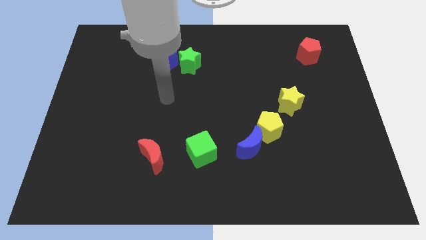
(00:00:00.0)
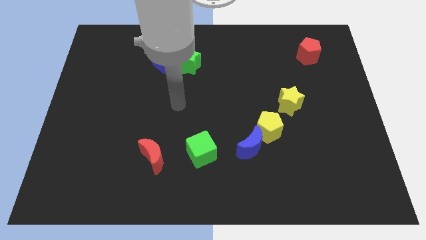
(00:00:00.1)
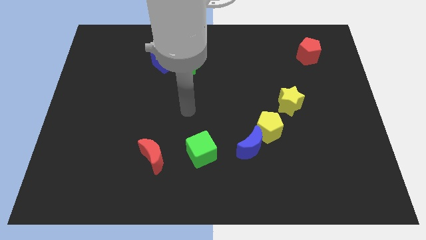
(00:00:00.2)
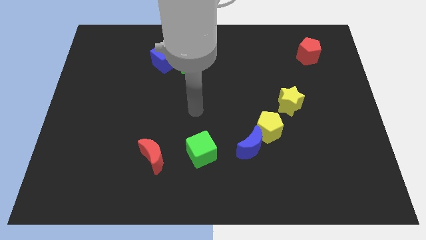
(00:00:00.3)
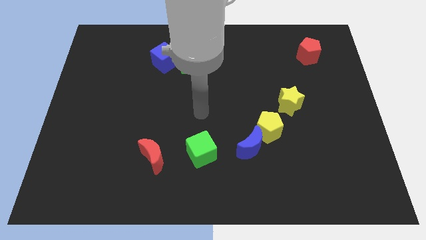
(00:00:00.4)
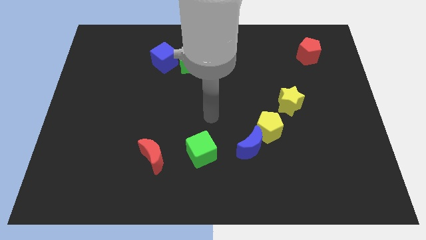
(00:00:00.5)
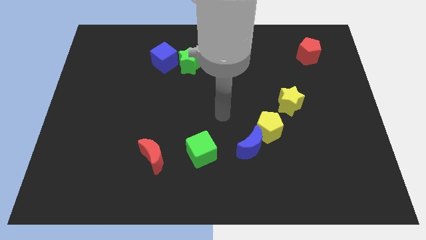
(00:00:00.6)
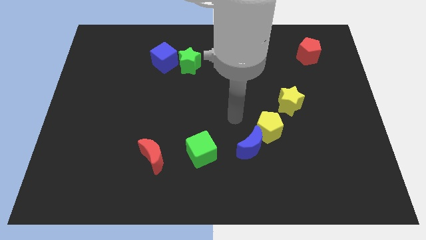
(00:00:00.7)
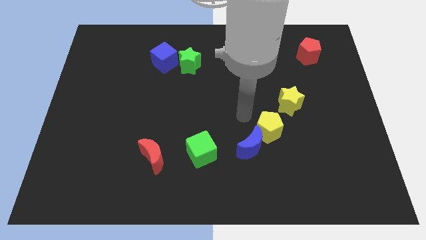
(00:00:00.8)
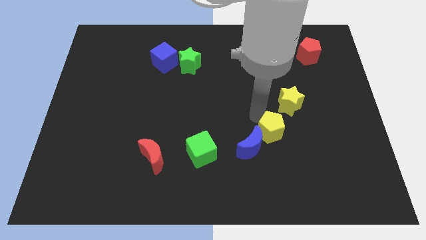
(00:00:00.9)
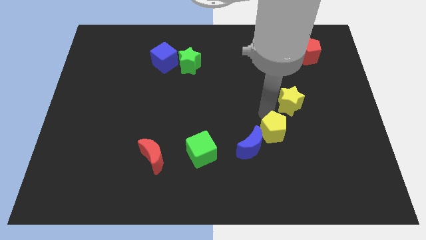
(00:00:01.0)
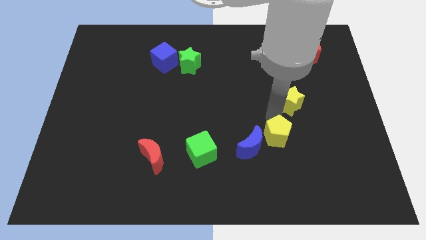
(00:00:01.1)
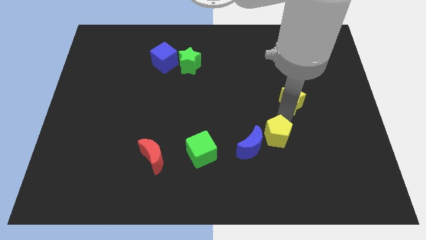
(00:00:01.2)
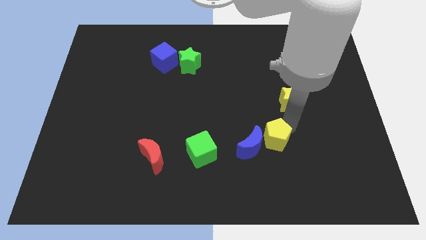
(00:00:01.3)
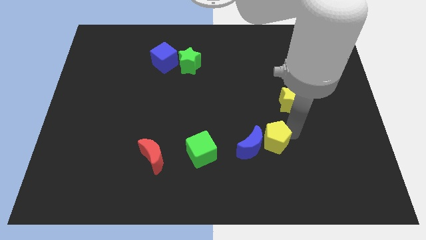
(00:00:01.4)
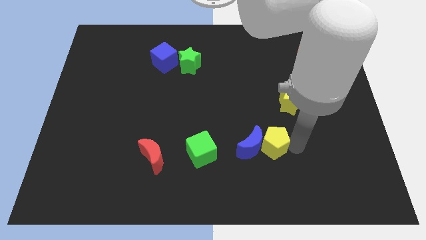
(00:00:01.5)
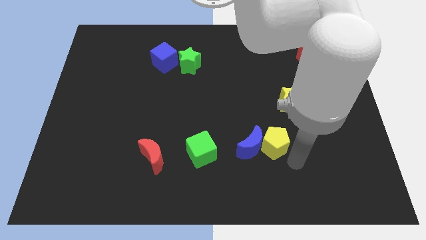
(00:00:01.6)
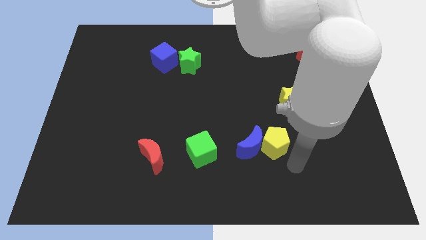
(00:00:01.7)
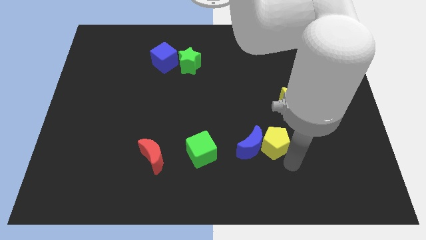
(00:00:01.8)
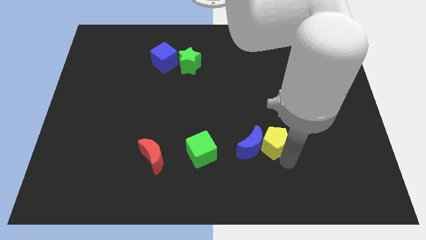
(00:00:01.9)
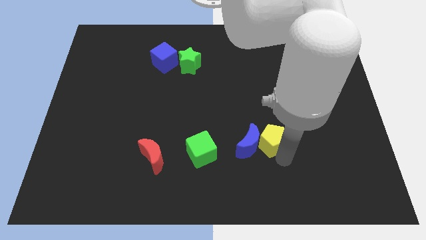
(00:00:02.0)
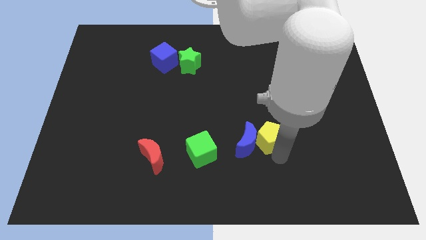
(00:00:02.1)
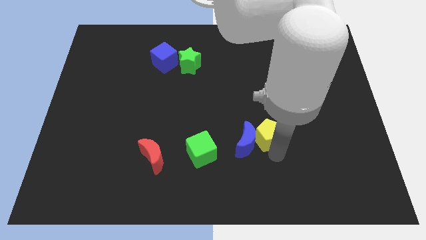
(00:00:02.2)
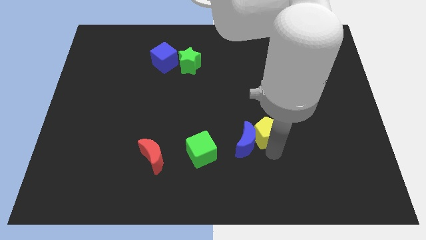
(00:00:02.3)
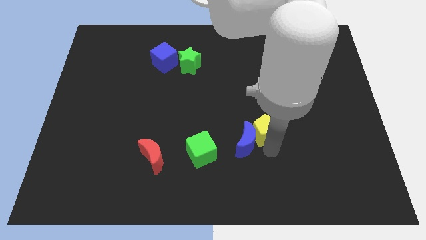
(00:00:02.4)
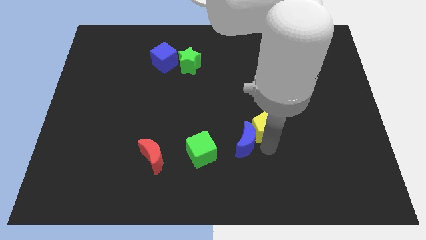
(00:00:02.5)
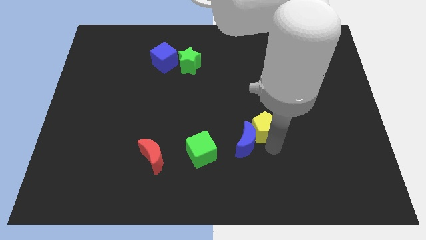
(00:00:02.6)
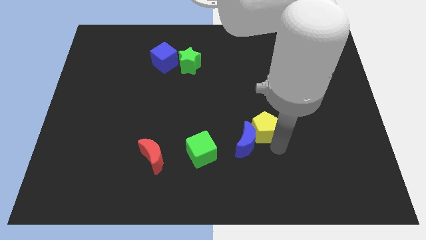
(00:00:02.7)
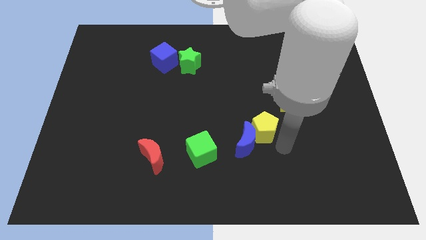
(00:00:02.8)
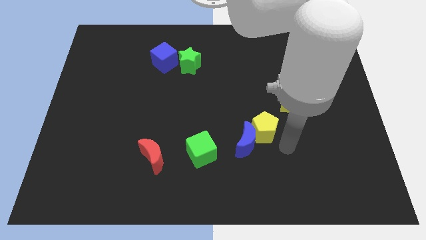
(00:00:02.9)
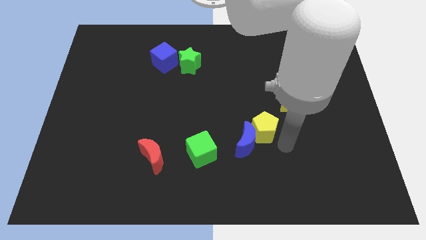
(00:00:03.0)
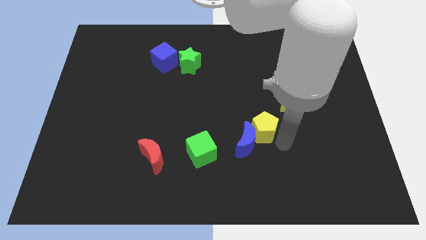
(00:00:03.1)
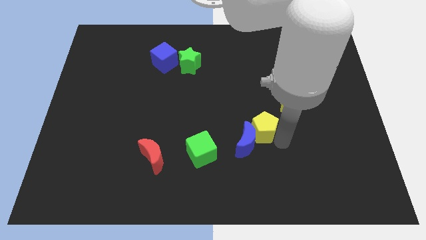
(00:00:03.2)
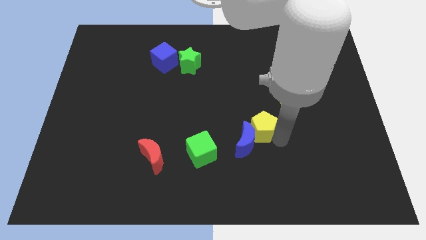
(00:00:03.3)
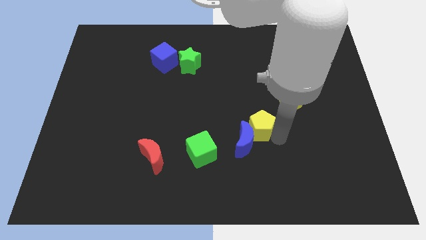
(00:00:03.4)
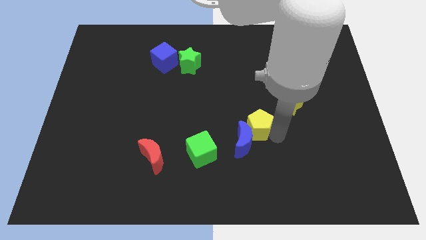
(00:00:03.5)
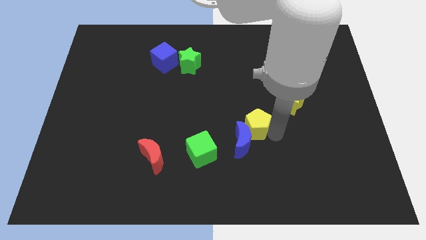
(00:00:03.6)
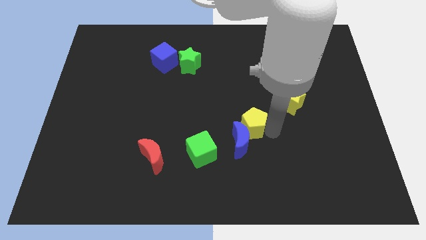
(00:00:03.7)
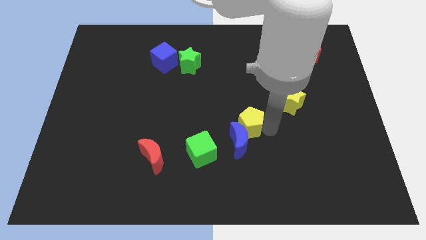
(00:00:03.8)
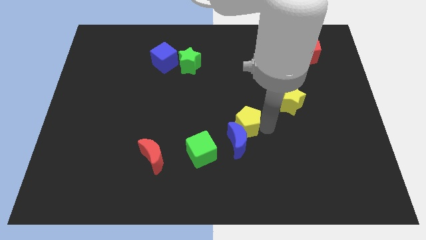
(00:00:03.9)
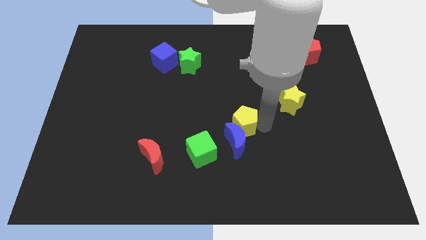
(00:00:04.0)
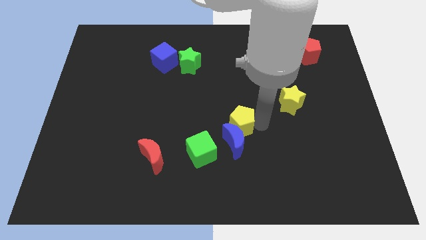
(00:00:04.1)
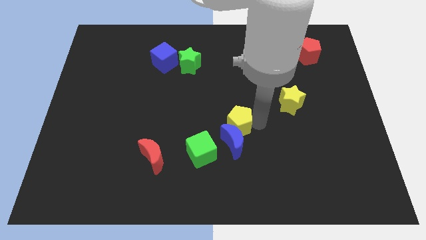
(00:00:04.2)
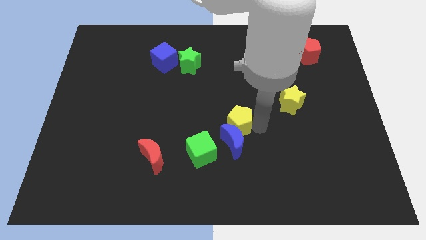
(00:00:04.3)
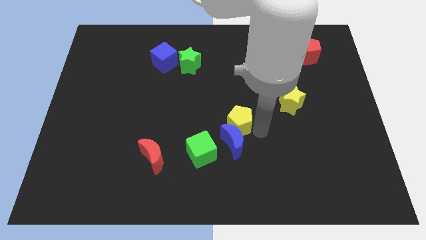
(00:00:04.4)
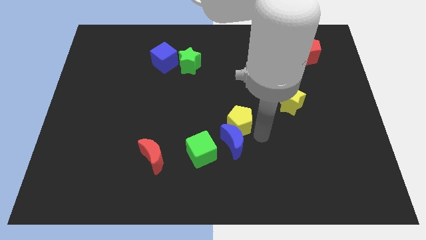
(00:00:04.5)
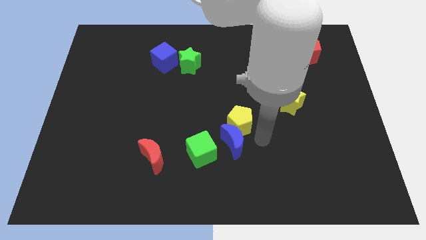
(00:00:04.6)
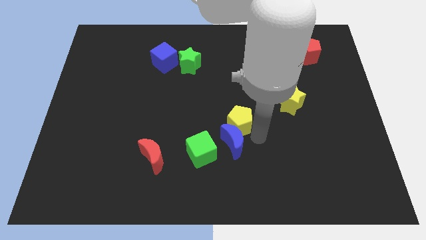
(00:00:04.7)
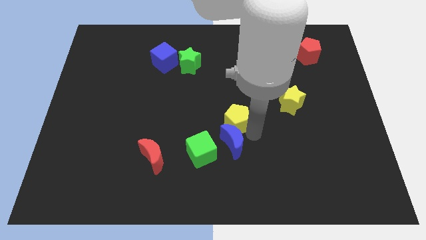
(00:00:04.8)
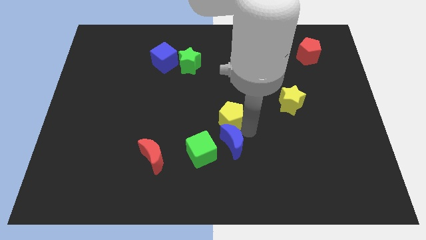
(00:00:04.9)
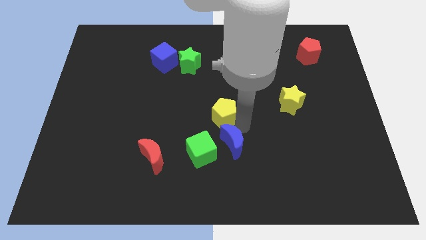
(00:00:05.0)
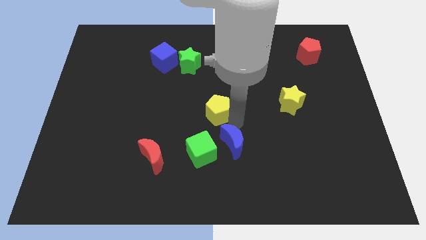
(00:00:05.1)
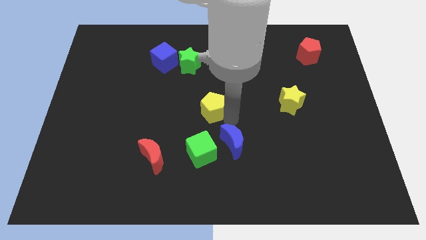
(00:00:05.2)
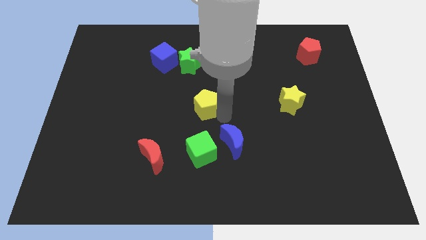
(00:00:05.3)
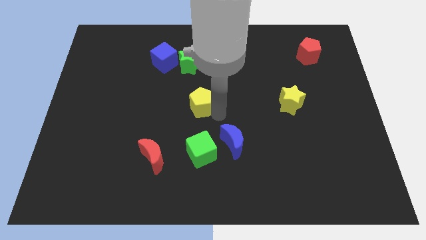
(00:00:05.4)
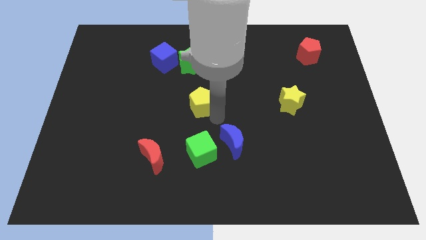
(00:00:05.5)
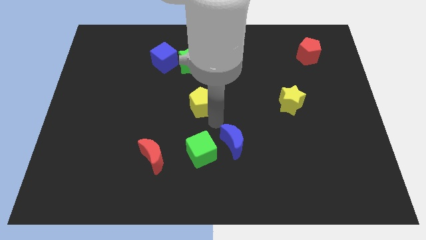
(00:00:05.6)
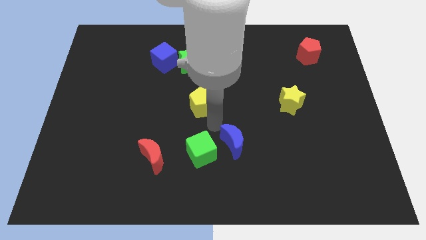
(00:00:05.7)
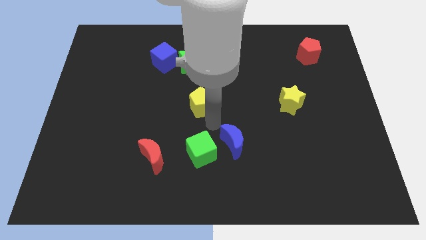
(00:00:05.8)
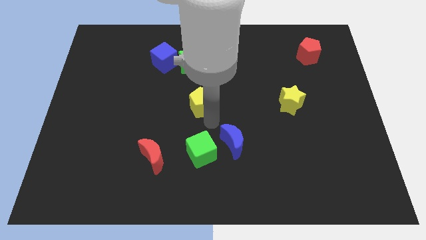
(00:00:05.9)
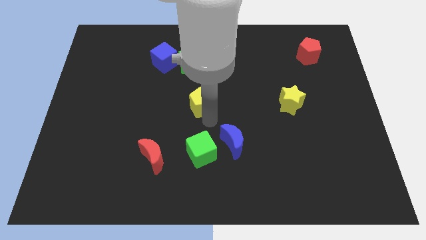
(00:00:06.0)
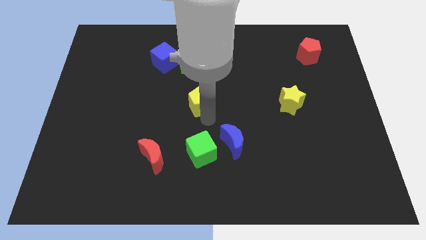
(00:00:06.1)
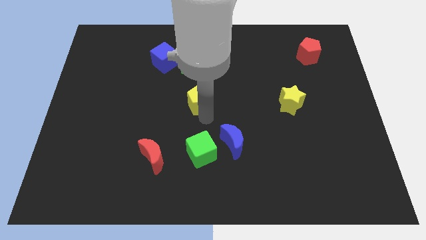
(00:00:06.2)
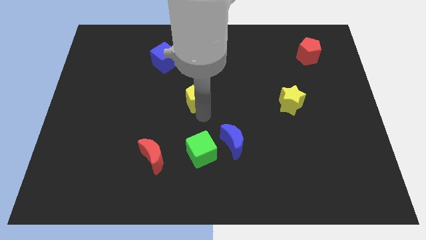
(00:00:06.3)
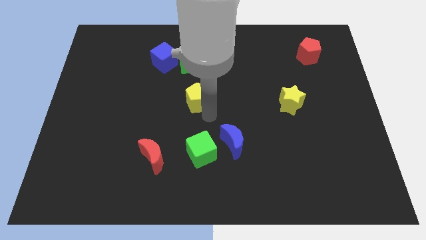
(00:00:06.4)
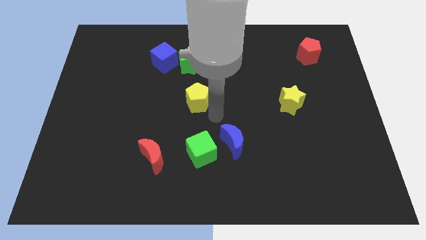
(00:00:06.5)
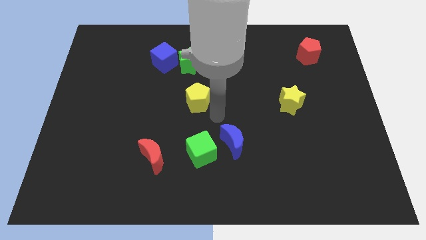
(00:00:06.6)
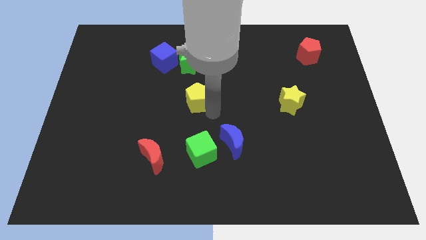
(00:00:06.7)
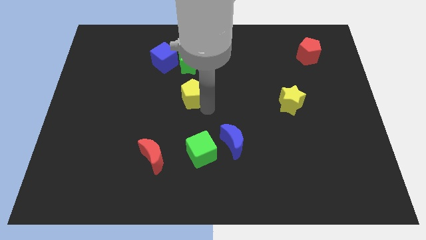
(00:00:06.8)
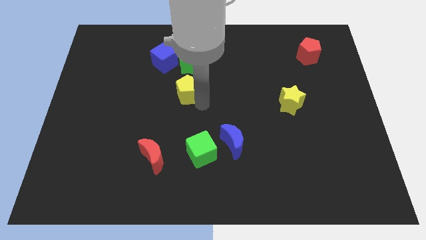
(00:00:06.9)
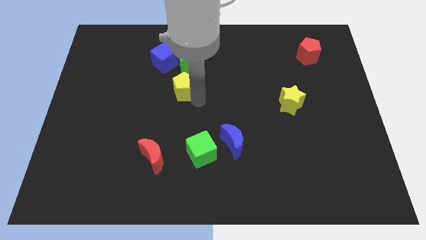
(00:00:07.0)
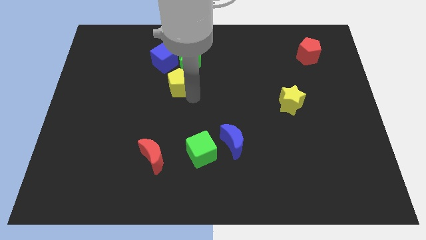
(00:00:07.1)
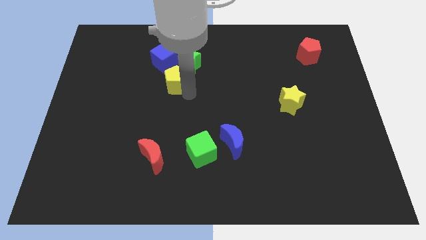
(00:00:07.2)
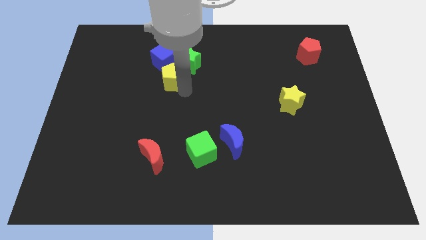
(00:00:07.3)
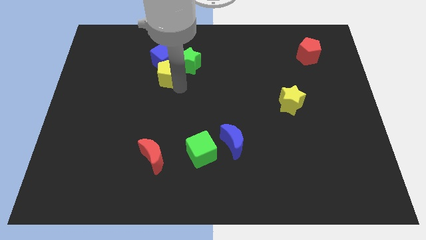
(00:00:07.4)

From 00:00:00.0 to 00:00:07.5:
move the yellow pentagon next to the blue cube
